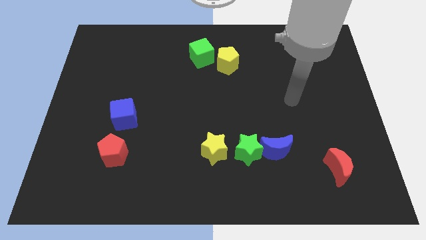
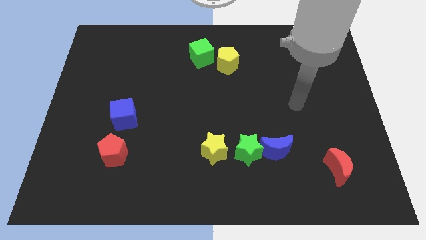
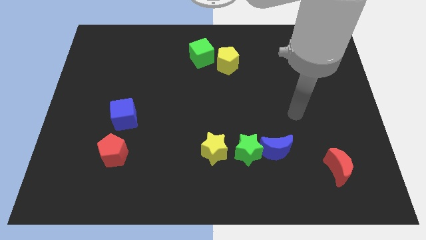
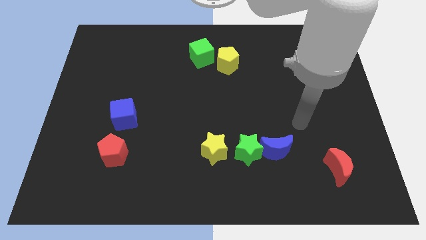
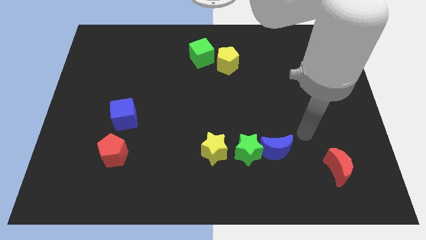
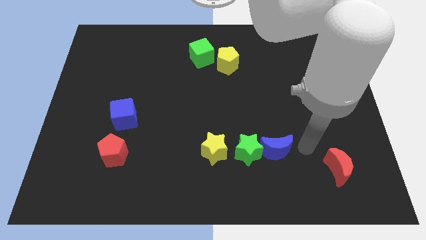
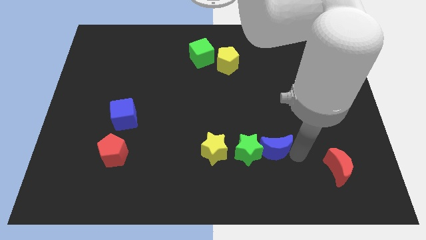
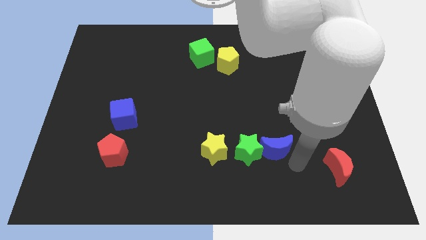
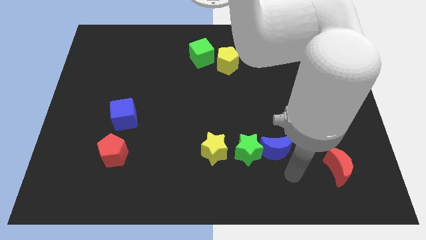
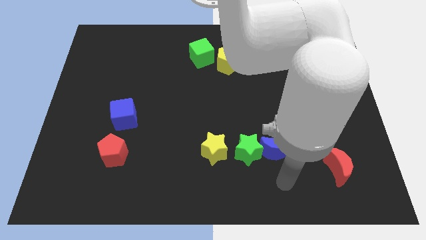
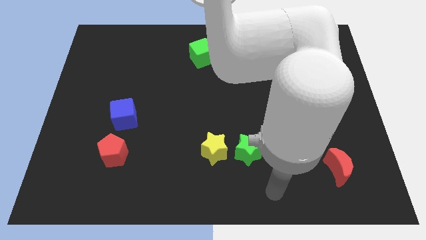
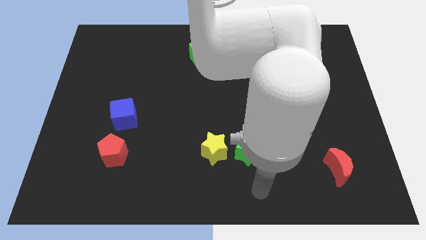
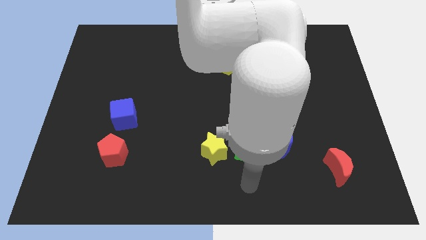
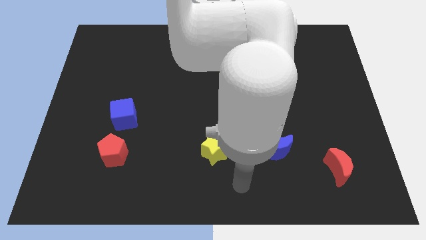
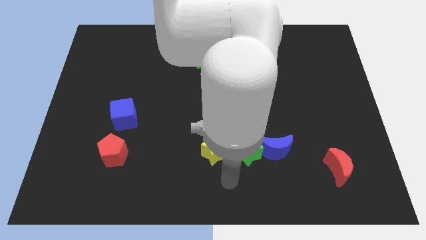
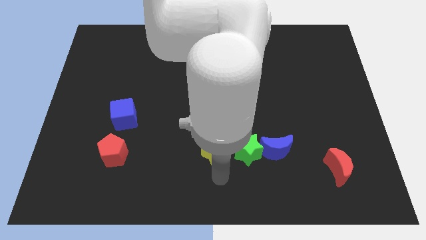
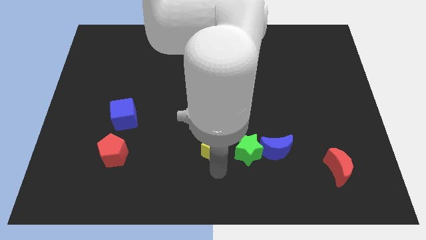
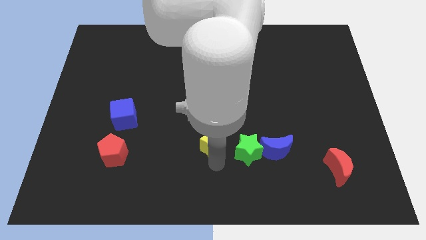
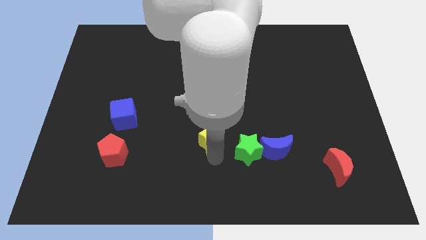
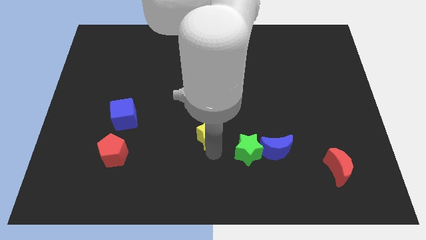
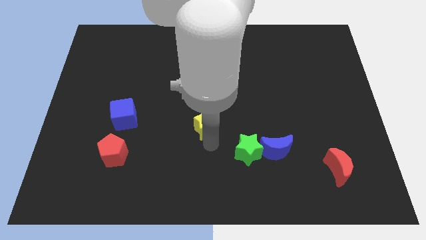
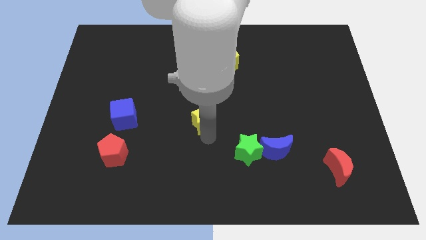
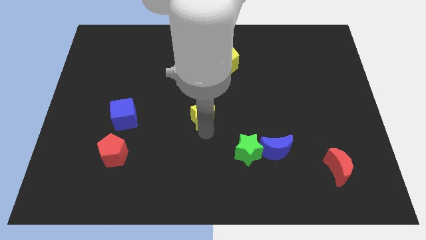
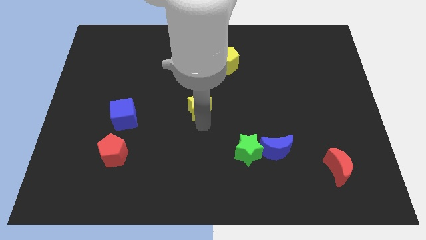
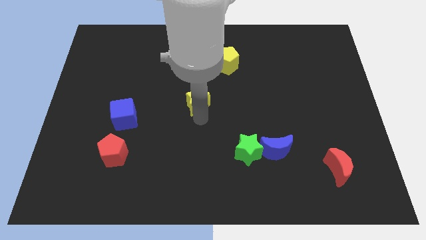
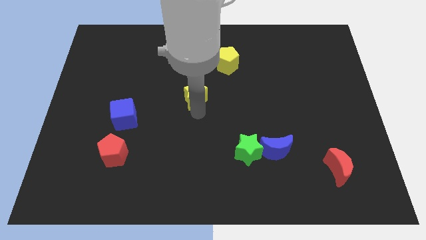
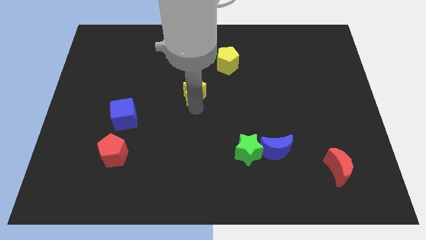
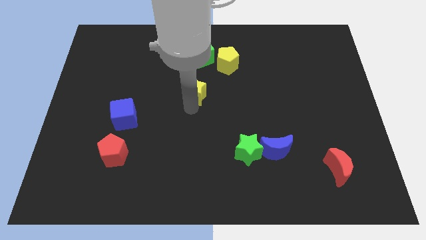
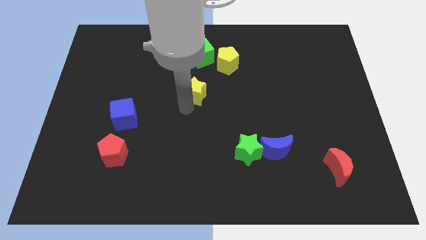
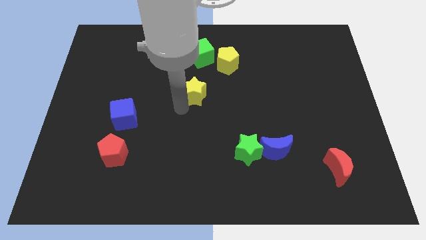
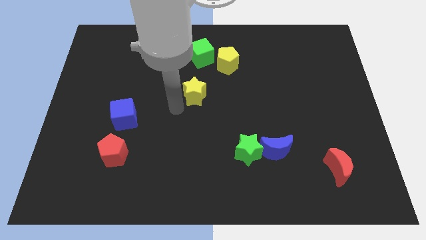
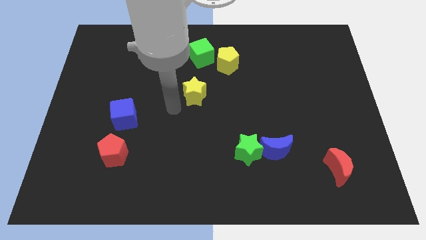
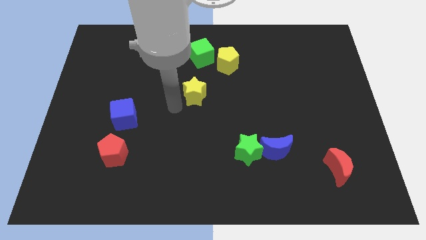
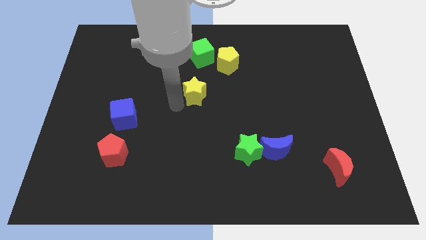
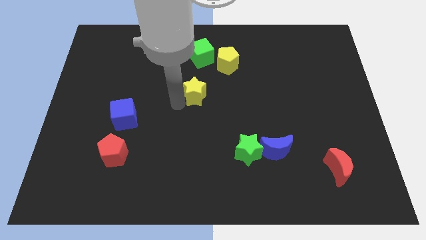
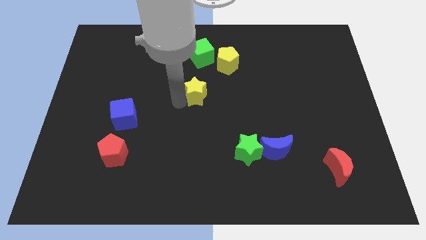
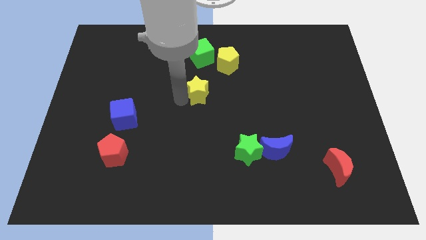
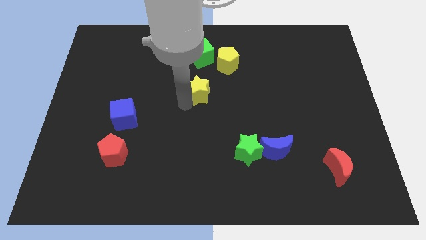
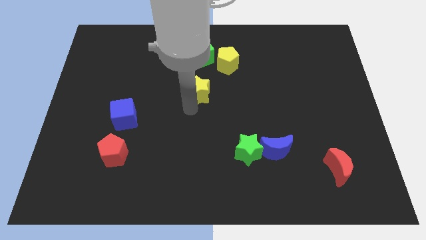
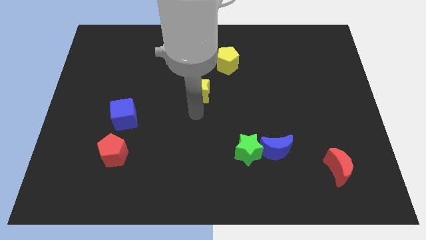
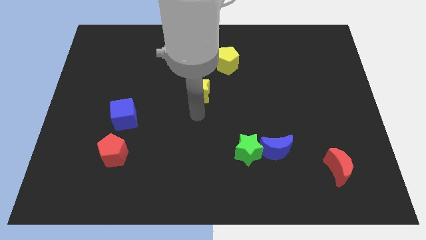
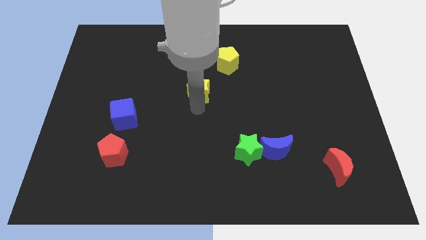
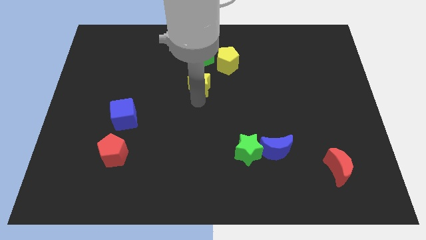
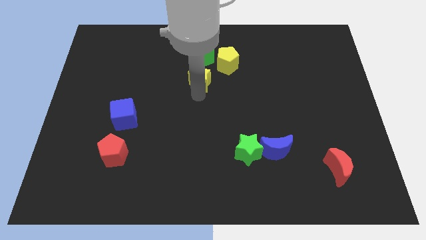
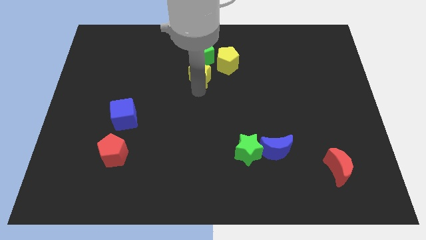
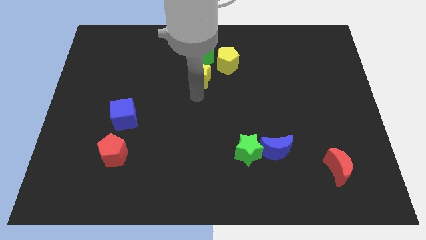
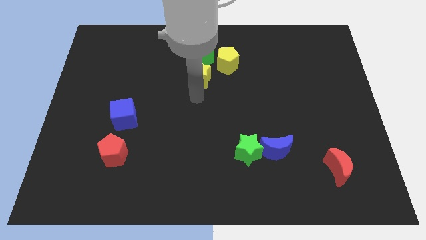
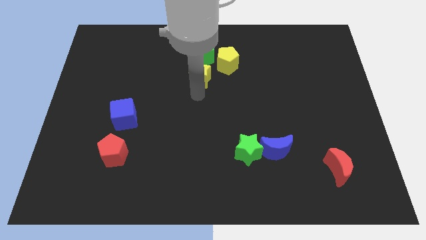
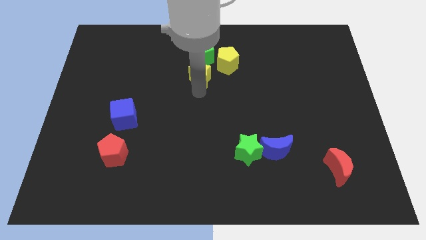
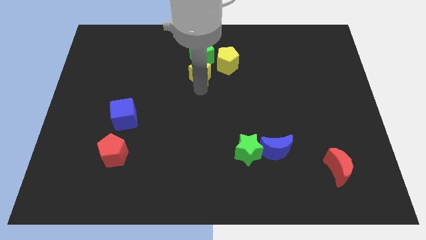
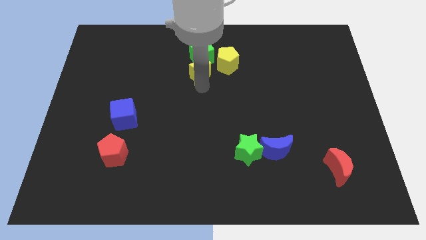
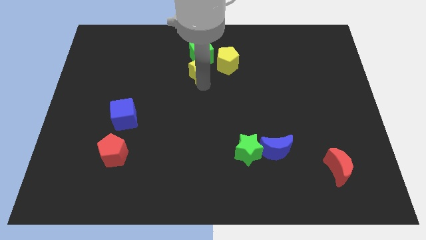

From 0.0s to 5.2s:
push the yellow star close to the green cube

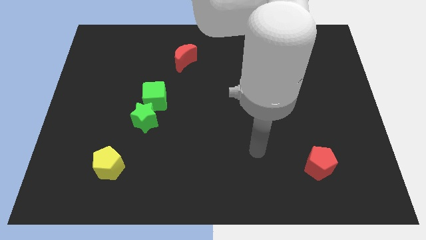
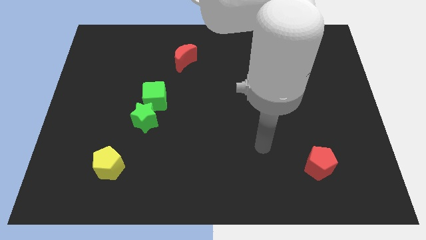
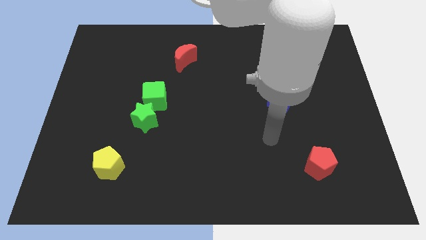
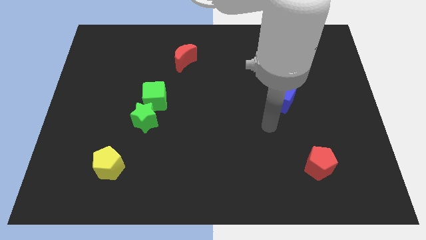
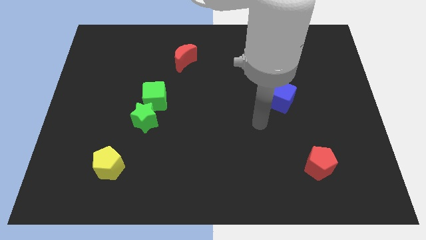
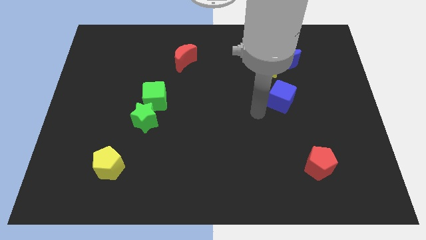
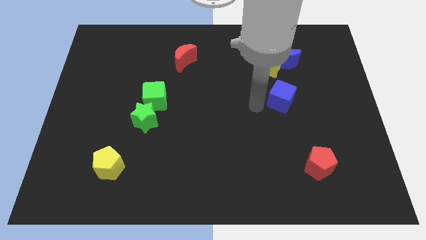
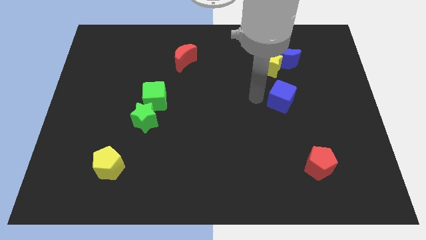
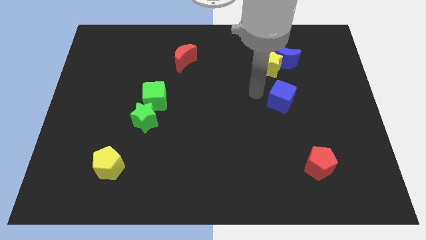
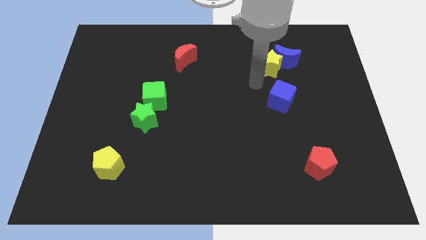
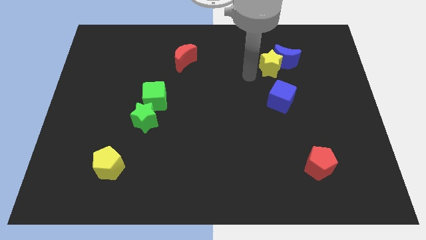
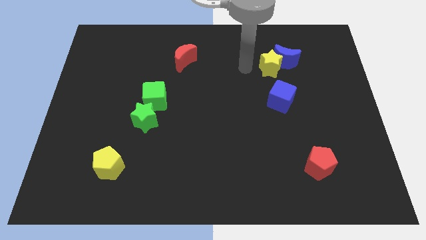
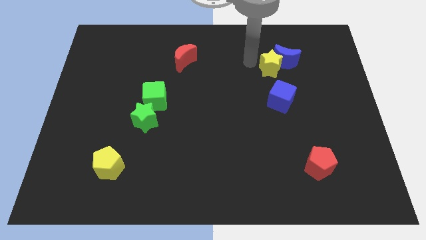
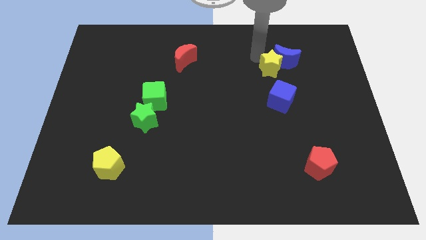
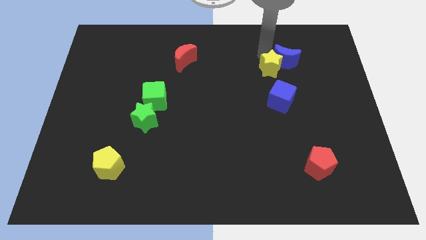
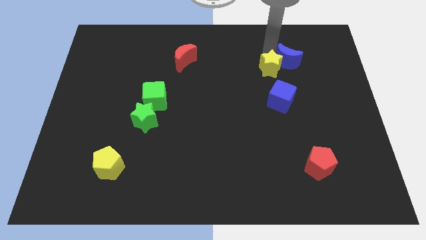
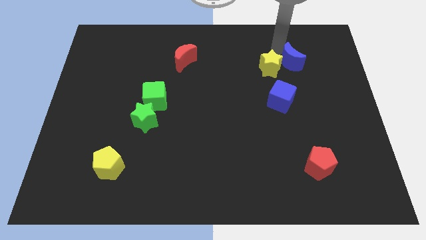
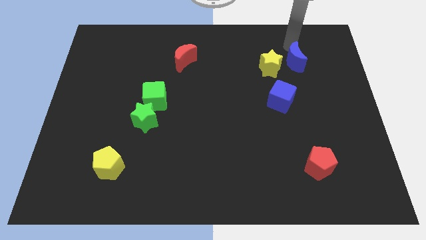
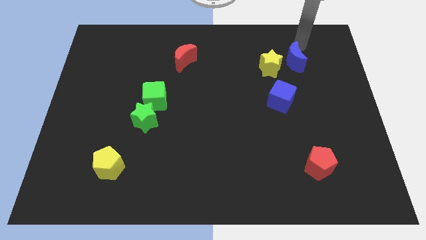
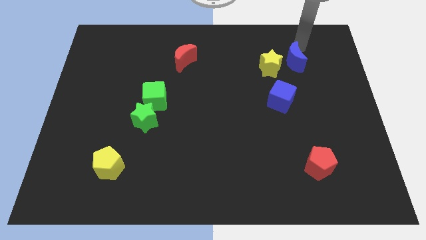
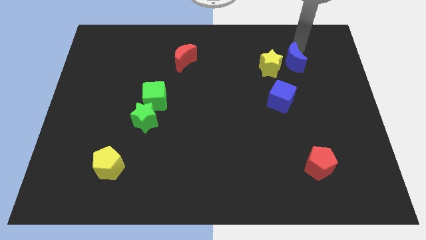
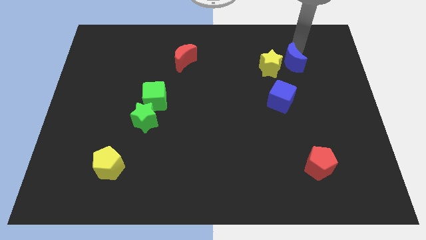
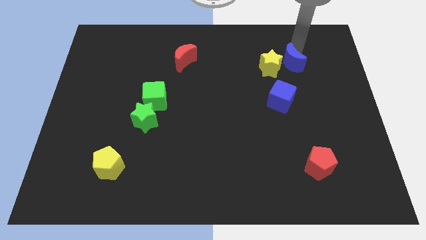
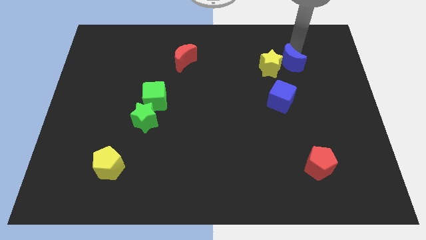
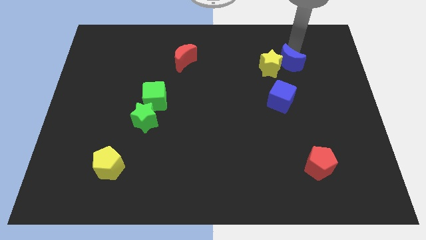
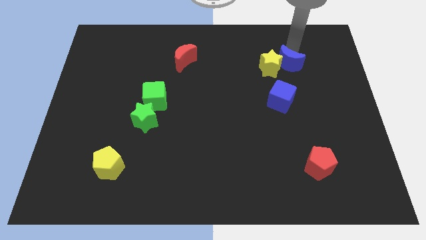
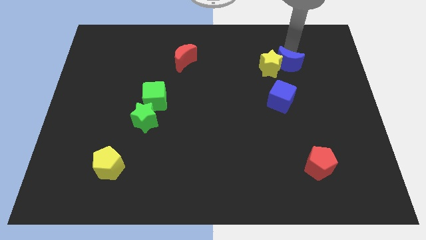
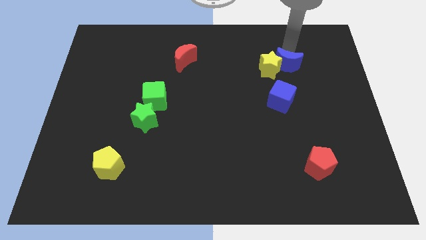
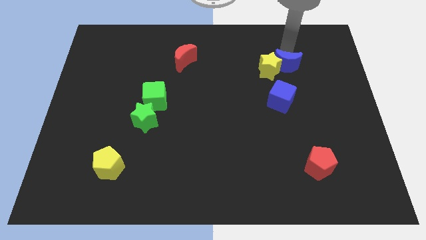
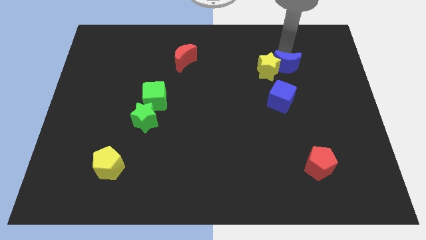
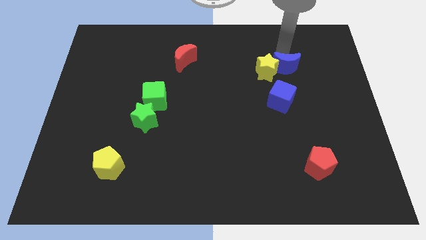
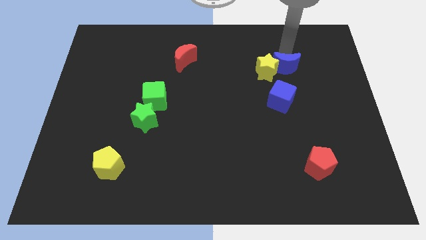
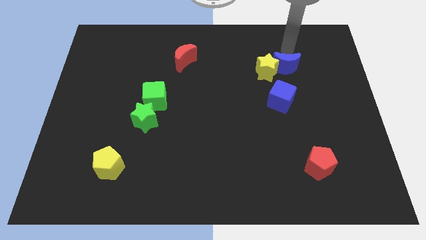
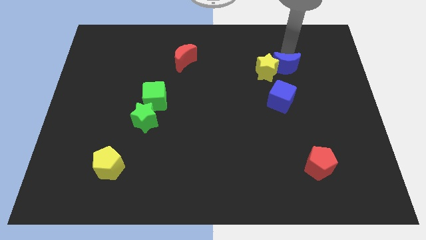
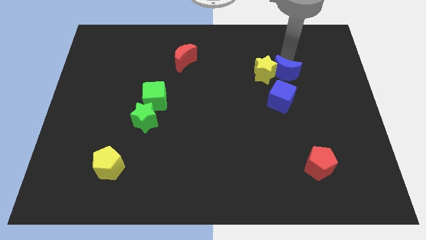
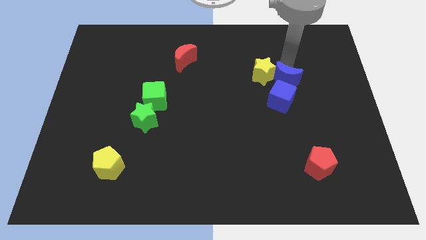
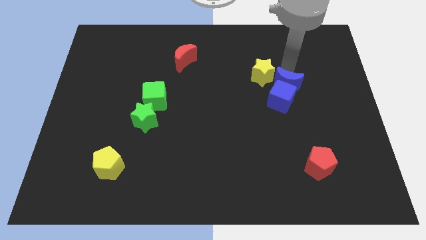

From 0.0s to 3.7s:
put the blue moon next to the blue cube
